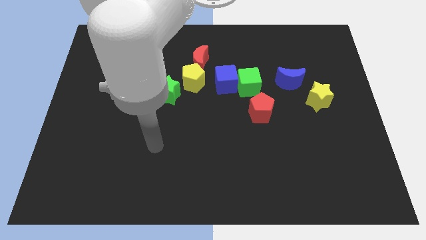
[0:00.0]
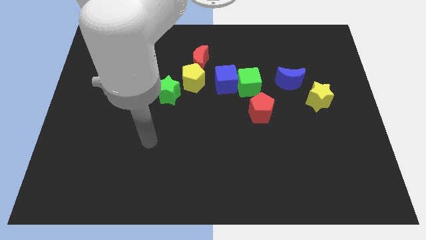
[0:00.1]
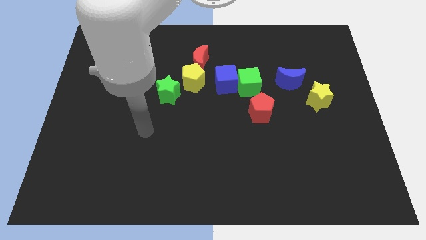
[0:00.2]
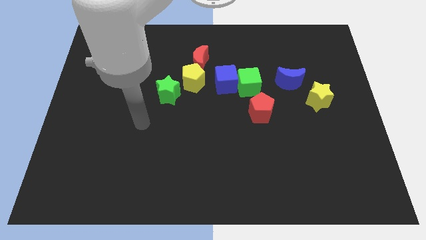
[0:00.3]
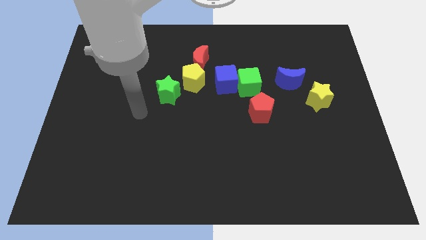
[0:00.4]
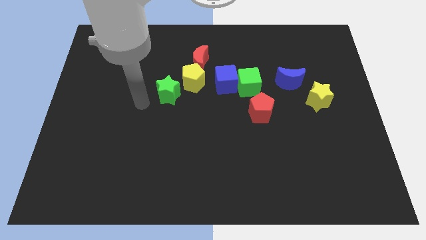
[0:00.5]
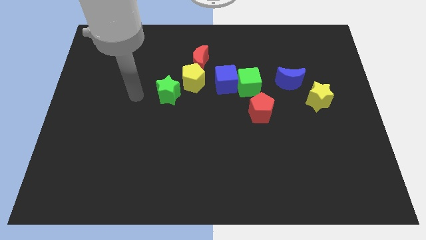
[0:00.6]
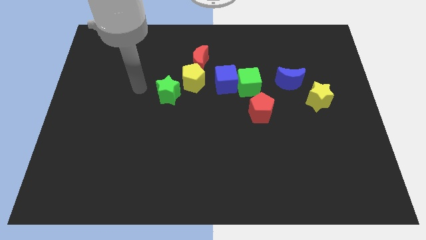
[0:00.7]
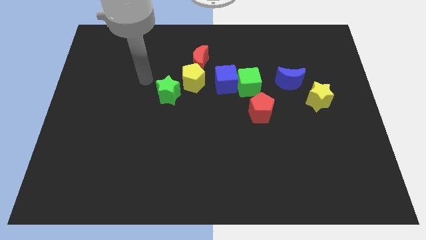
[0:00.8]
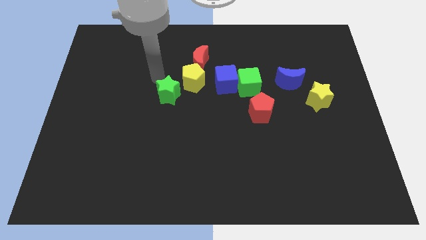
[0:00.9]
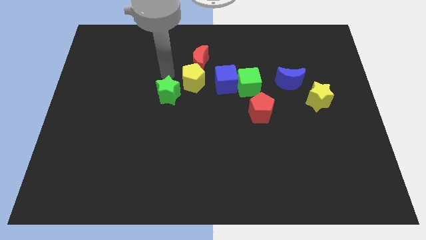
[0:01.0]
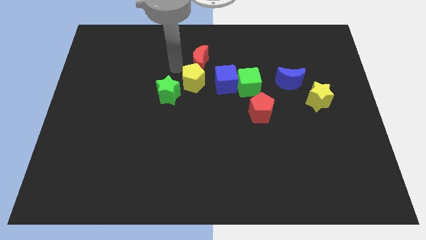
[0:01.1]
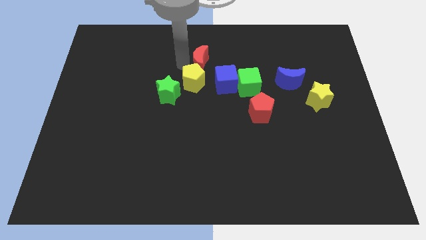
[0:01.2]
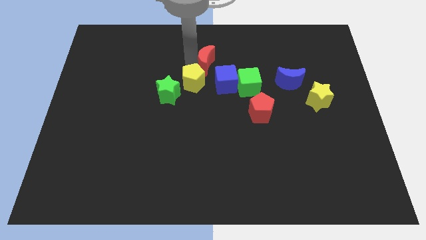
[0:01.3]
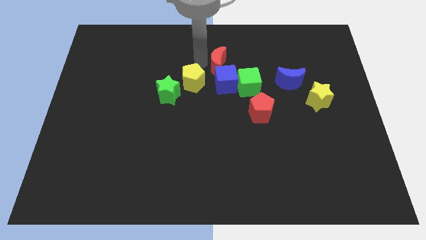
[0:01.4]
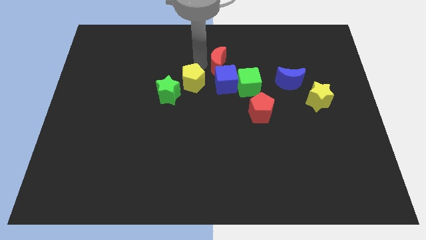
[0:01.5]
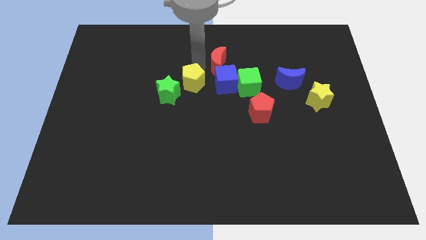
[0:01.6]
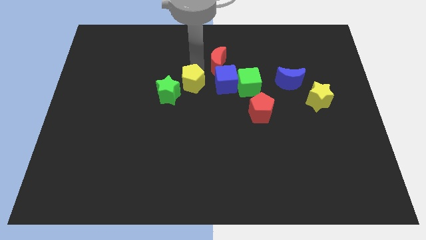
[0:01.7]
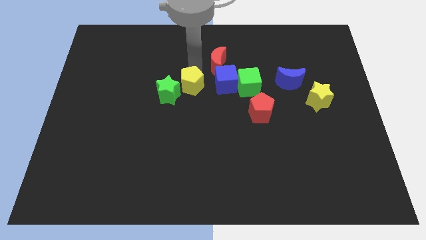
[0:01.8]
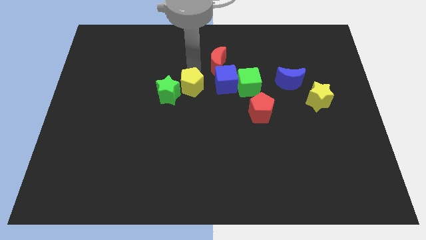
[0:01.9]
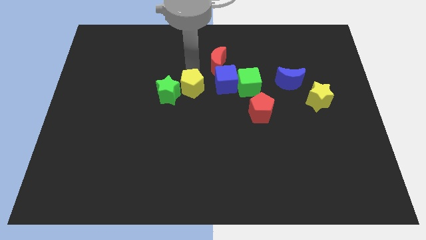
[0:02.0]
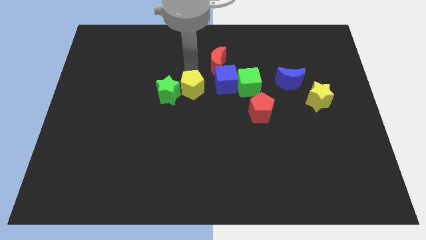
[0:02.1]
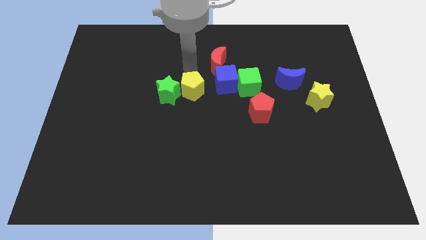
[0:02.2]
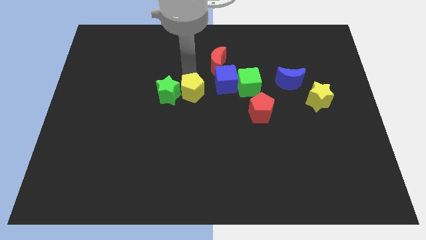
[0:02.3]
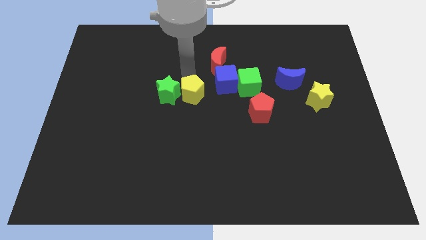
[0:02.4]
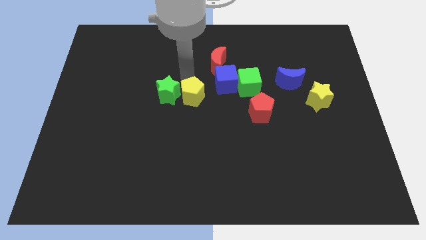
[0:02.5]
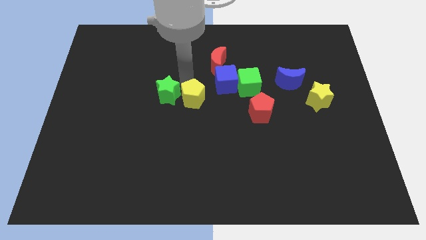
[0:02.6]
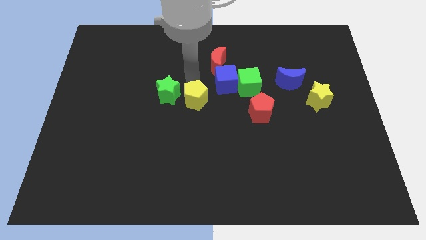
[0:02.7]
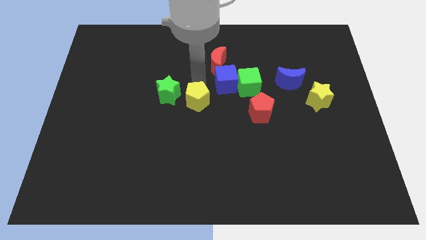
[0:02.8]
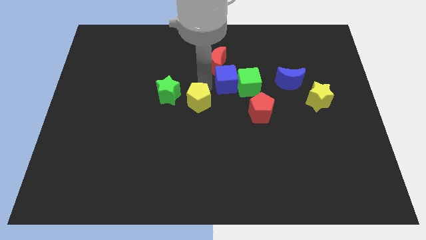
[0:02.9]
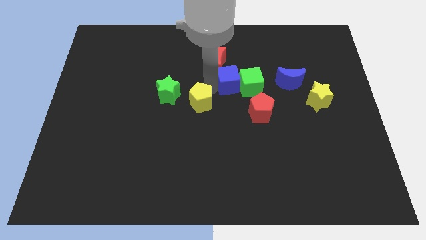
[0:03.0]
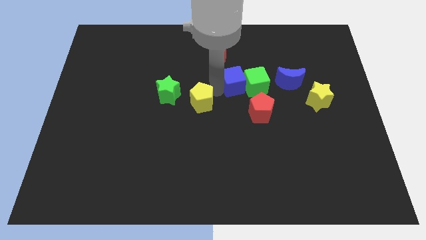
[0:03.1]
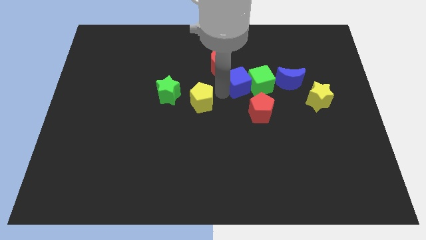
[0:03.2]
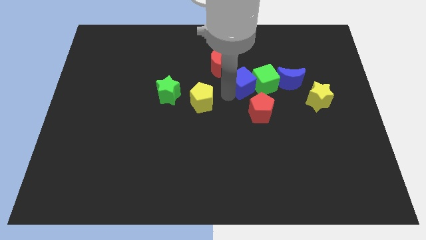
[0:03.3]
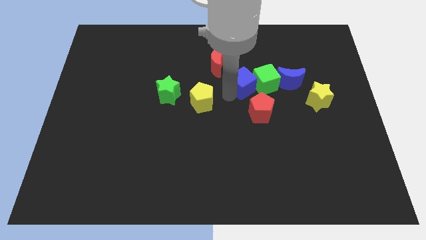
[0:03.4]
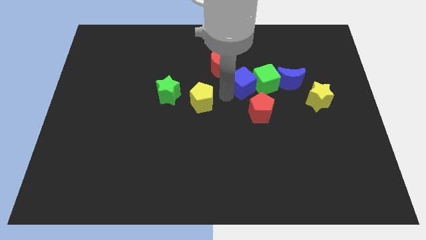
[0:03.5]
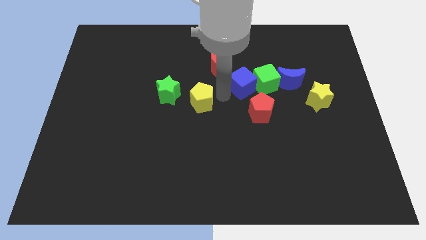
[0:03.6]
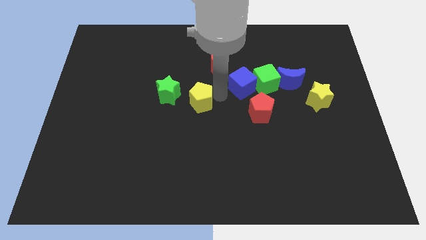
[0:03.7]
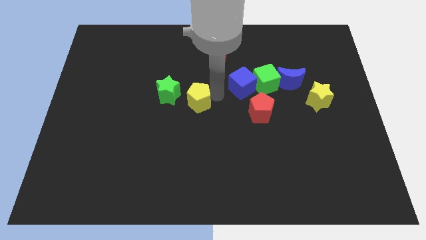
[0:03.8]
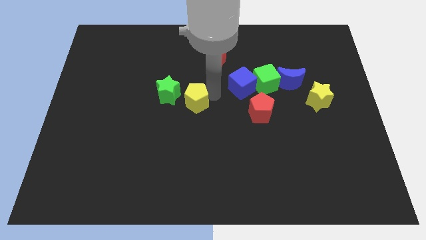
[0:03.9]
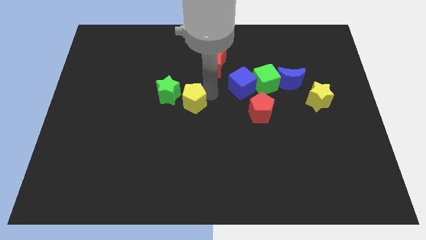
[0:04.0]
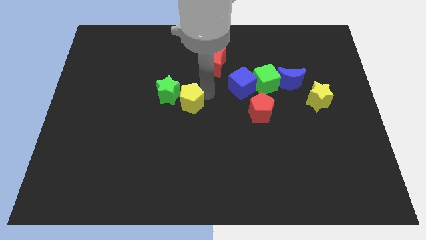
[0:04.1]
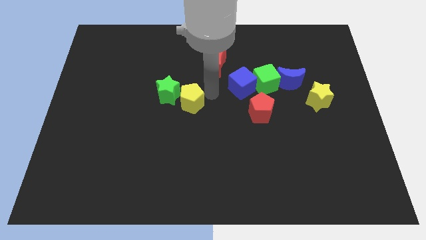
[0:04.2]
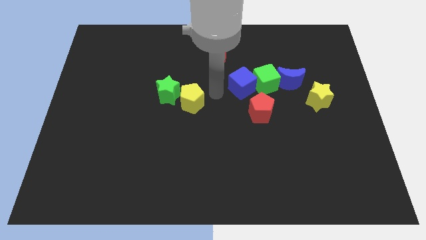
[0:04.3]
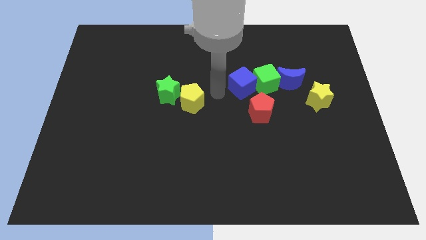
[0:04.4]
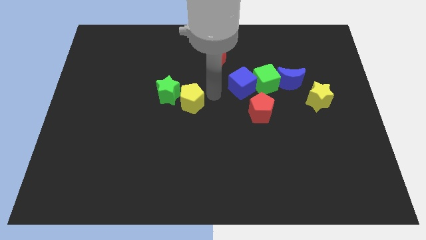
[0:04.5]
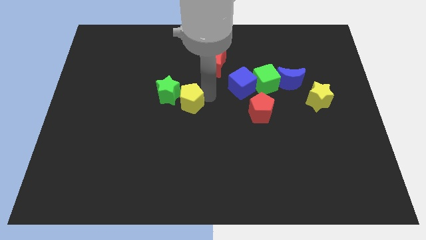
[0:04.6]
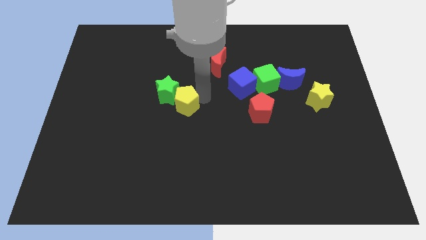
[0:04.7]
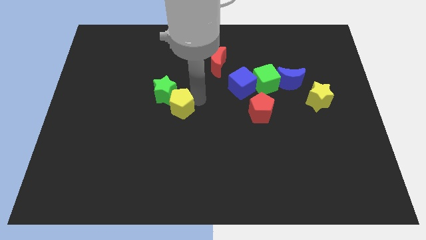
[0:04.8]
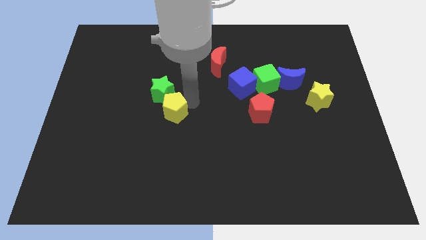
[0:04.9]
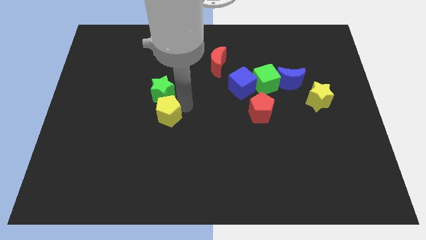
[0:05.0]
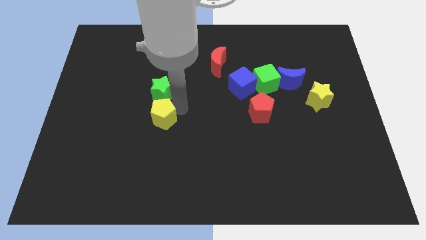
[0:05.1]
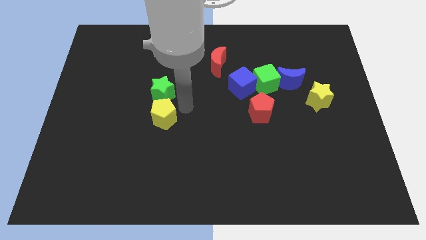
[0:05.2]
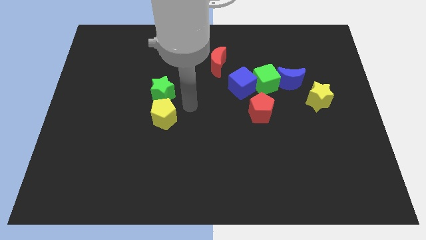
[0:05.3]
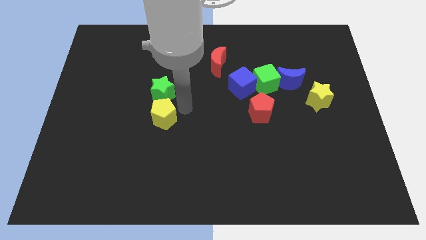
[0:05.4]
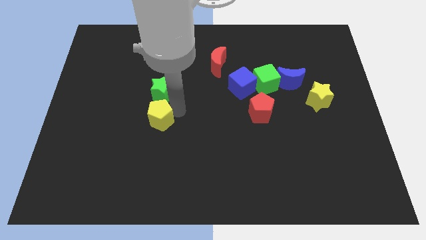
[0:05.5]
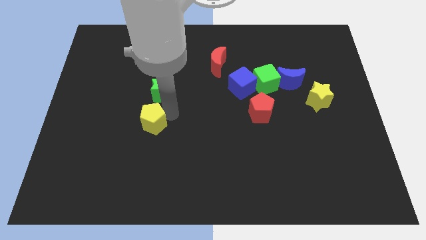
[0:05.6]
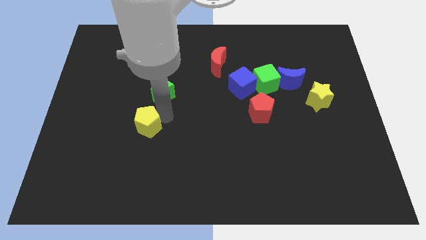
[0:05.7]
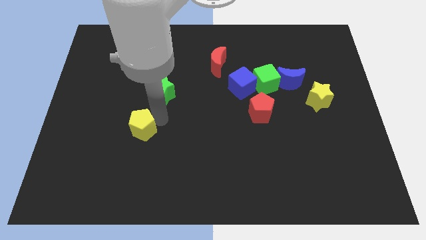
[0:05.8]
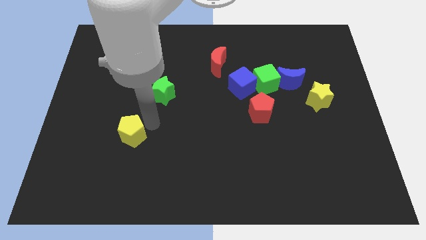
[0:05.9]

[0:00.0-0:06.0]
push the yellow pentagon diagonally downwards and to the left

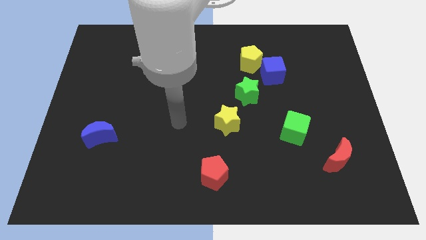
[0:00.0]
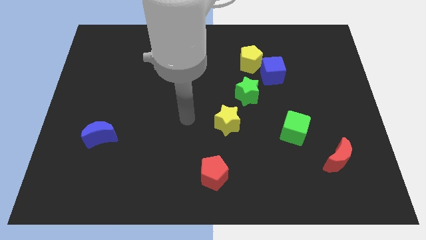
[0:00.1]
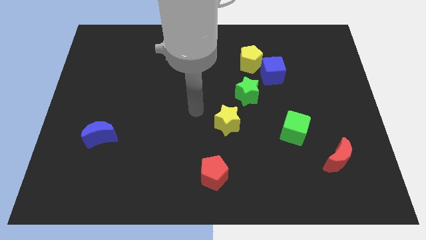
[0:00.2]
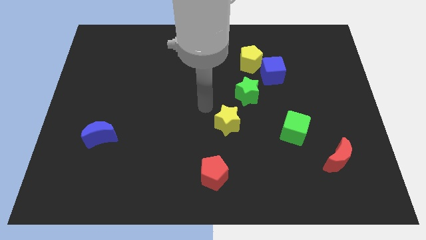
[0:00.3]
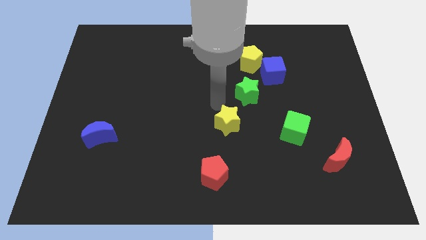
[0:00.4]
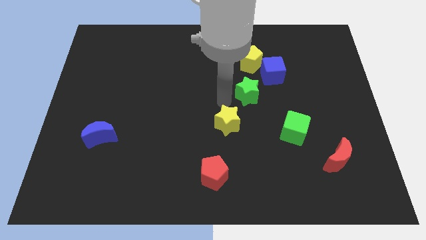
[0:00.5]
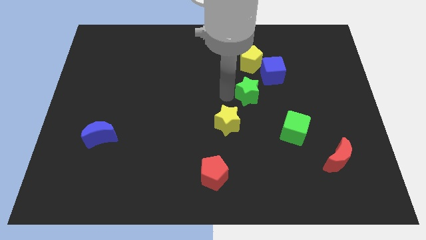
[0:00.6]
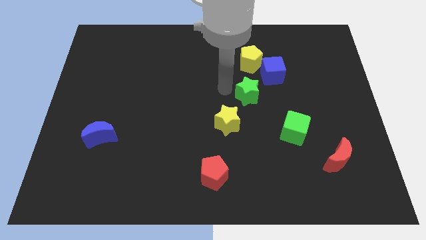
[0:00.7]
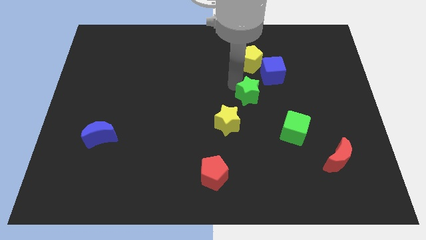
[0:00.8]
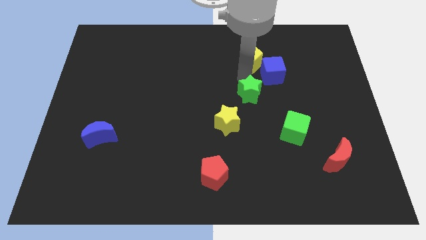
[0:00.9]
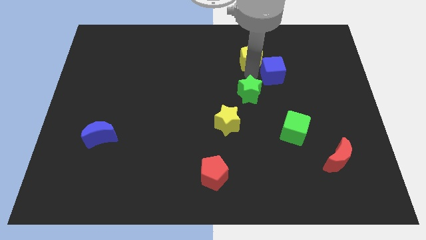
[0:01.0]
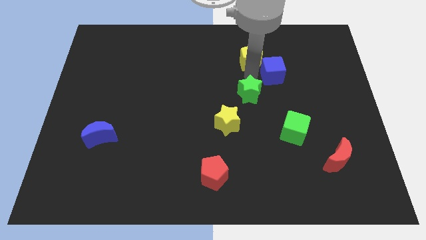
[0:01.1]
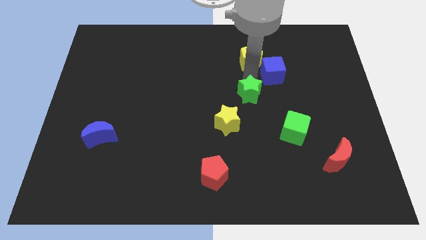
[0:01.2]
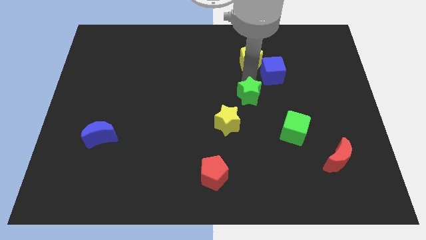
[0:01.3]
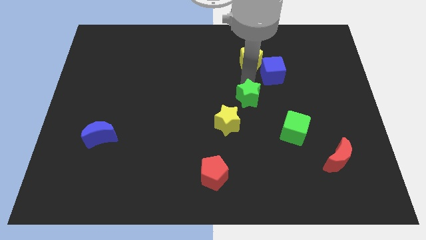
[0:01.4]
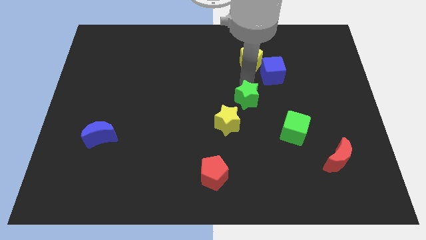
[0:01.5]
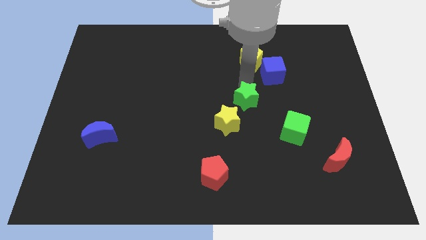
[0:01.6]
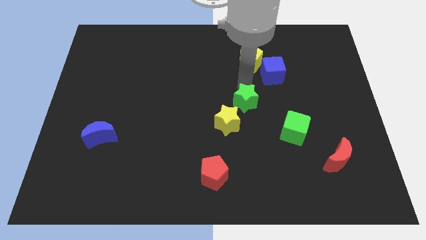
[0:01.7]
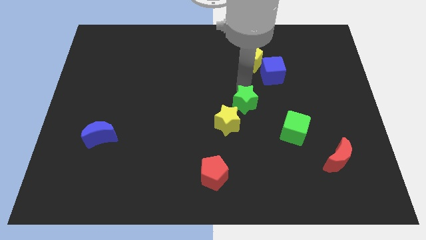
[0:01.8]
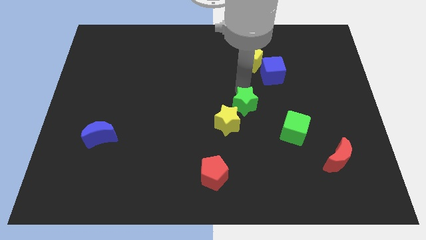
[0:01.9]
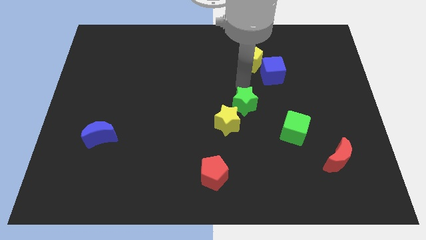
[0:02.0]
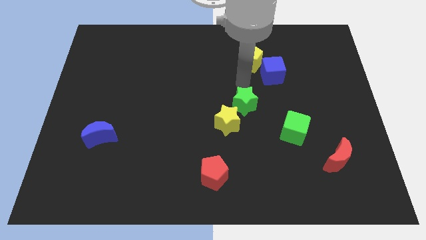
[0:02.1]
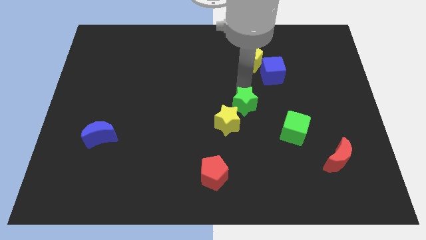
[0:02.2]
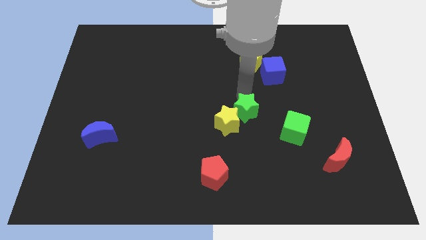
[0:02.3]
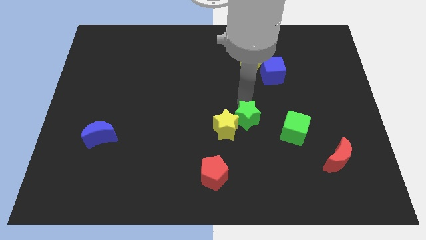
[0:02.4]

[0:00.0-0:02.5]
slide the green star downwards slightly
